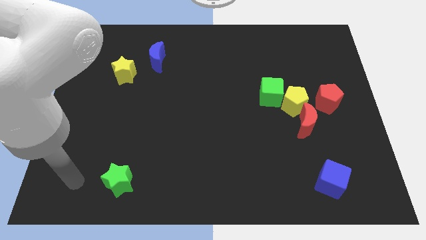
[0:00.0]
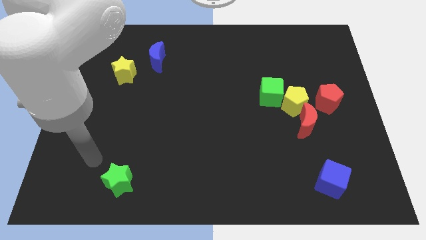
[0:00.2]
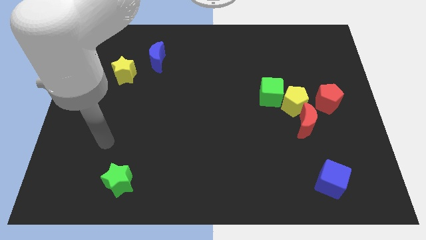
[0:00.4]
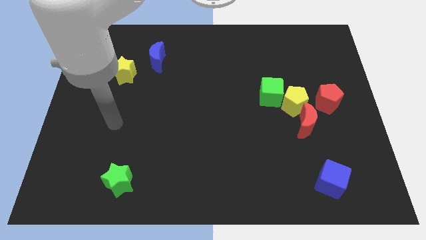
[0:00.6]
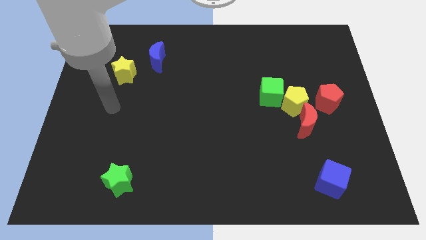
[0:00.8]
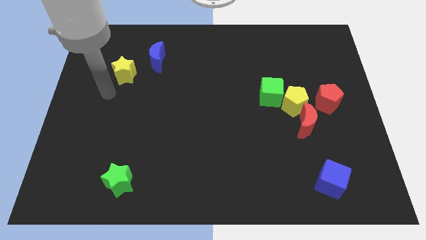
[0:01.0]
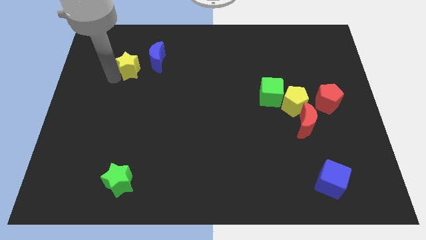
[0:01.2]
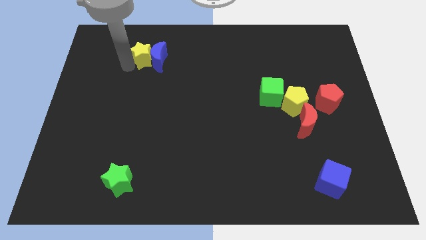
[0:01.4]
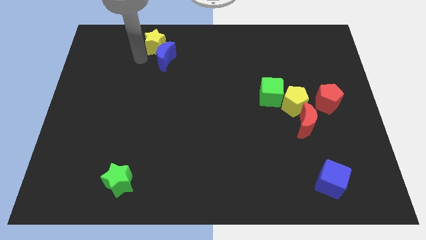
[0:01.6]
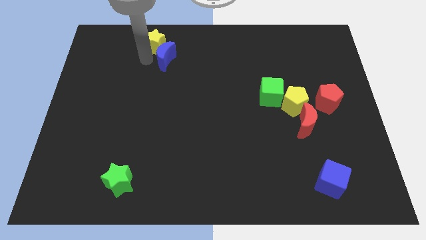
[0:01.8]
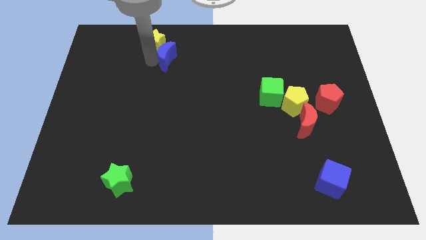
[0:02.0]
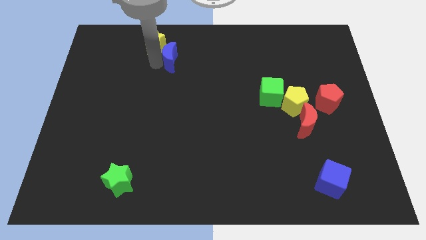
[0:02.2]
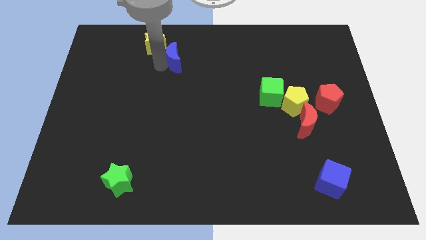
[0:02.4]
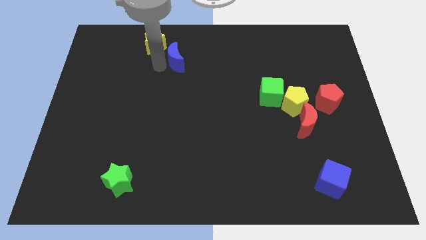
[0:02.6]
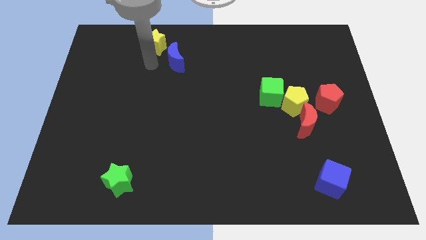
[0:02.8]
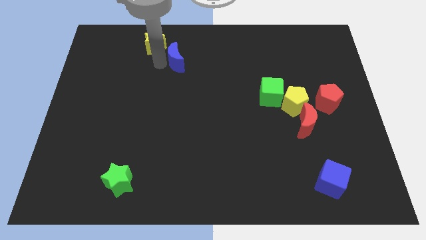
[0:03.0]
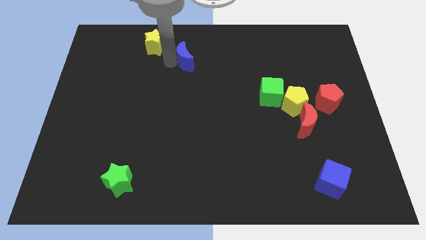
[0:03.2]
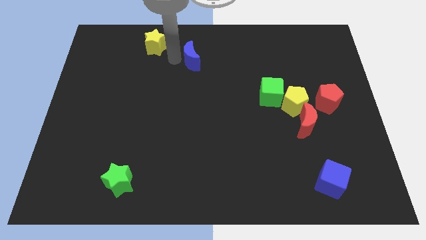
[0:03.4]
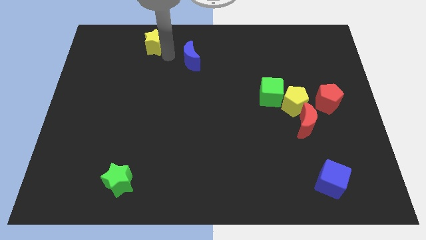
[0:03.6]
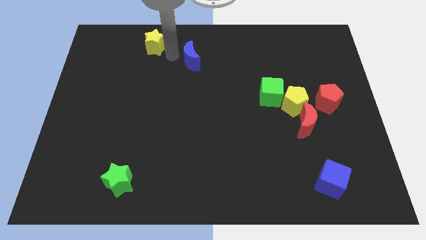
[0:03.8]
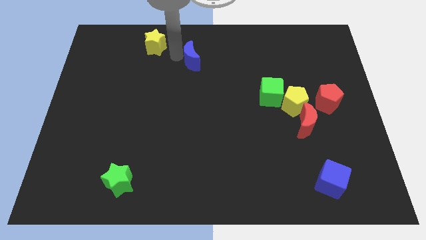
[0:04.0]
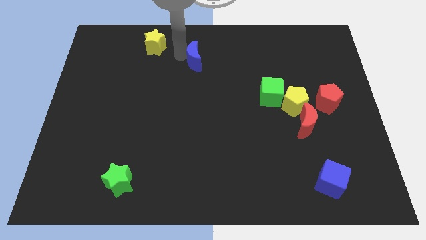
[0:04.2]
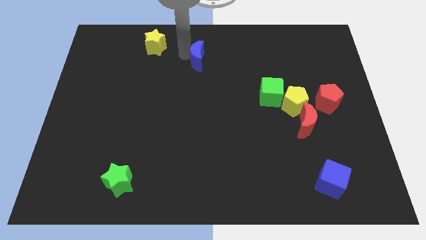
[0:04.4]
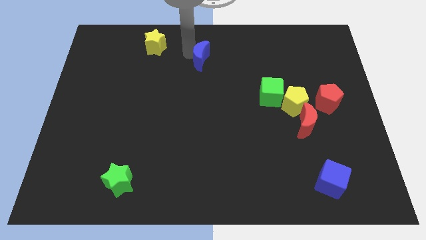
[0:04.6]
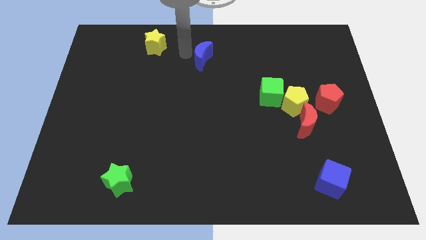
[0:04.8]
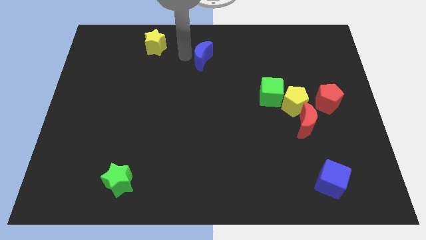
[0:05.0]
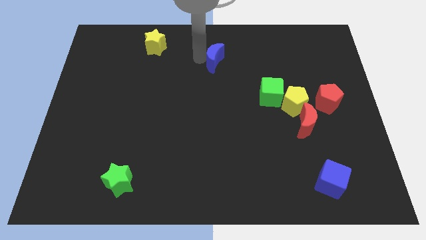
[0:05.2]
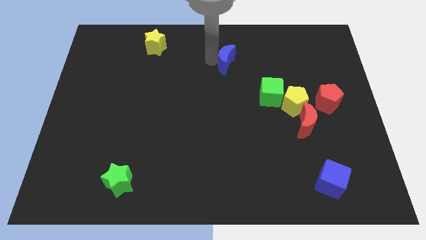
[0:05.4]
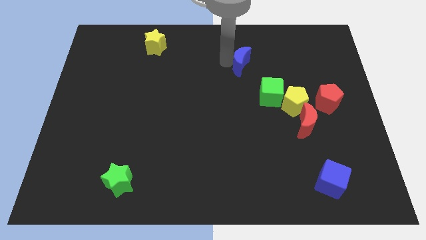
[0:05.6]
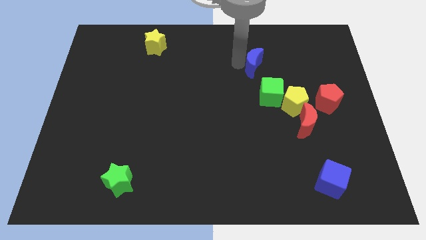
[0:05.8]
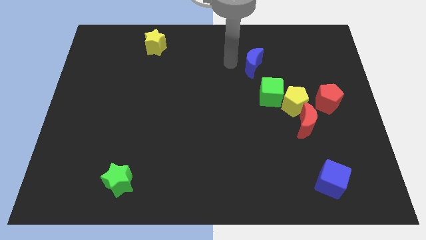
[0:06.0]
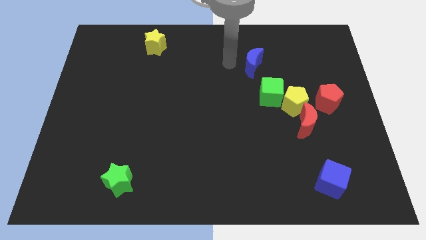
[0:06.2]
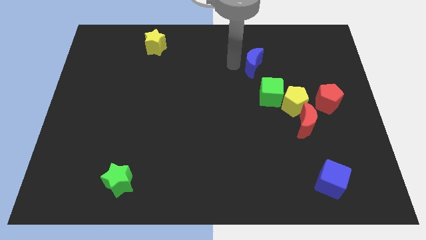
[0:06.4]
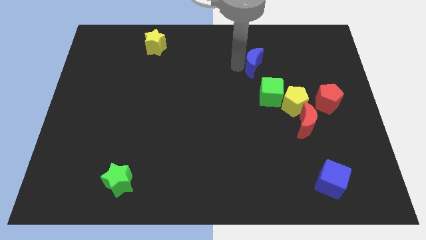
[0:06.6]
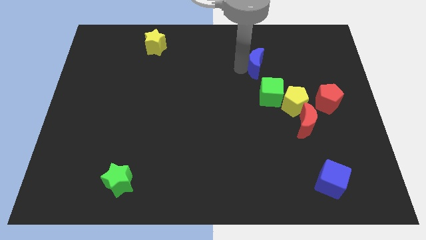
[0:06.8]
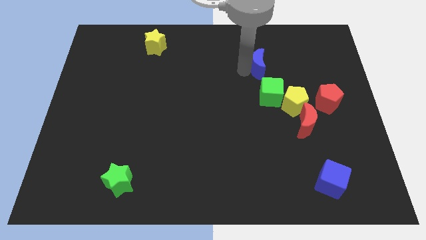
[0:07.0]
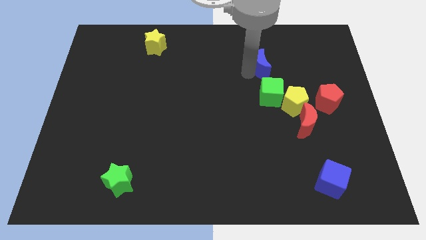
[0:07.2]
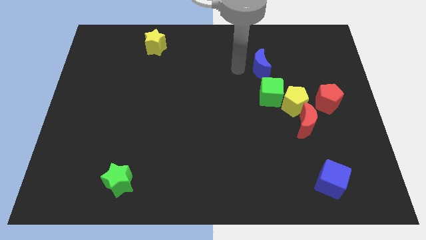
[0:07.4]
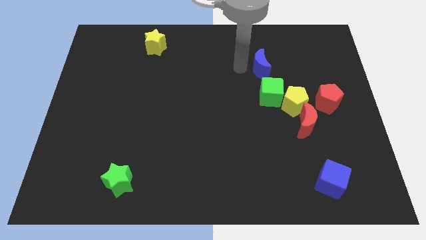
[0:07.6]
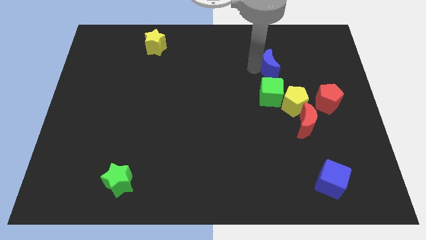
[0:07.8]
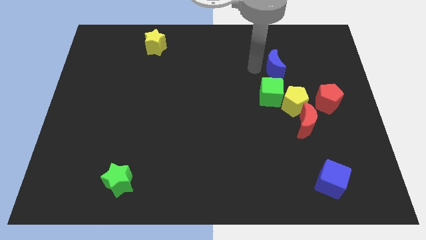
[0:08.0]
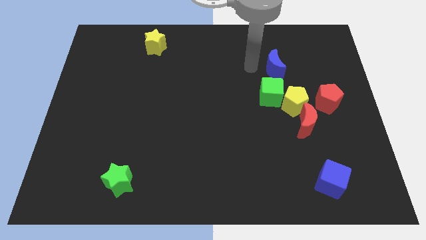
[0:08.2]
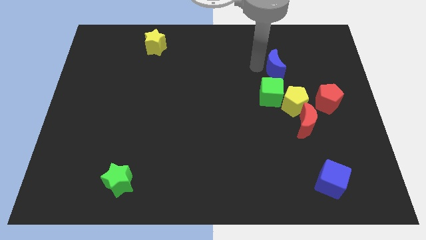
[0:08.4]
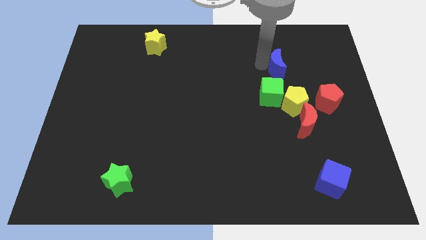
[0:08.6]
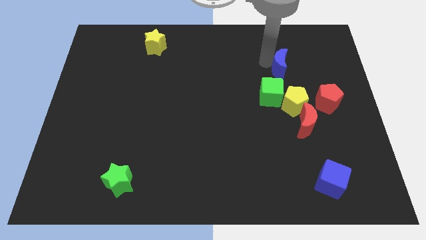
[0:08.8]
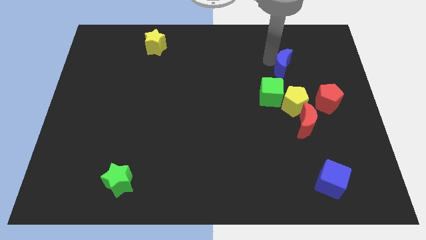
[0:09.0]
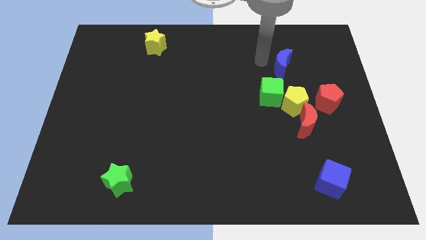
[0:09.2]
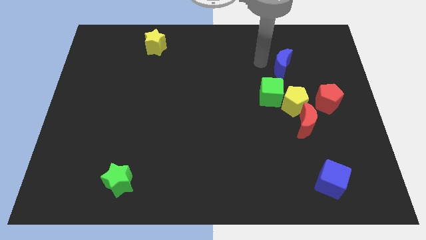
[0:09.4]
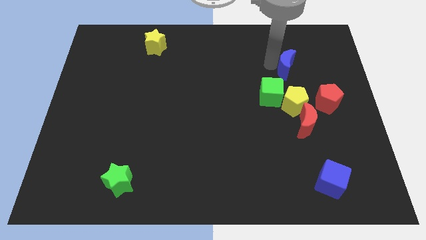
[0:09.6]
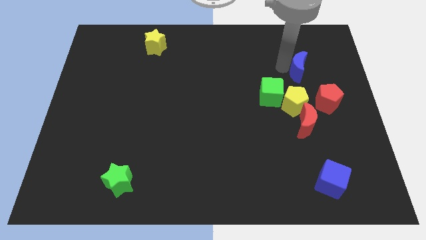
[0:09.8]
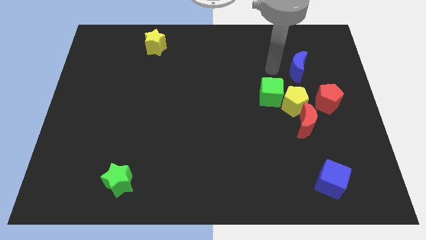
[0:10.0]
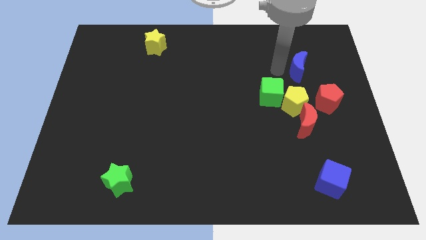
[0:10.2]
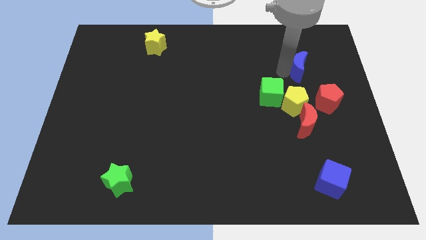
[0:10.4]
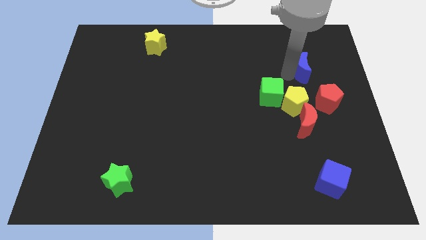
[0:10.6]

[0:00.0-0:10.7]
push the blue moon to the top side of the red pentagon
